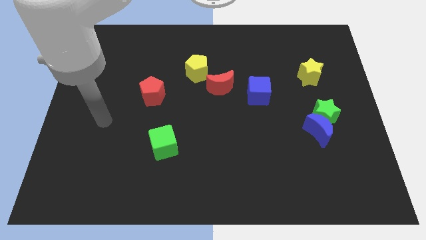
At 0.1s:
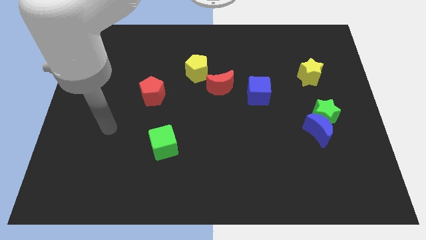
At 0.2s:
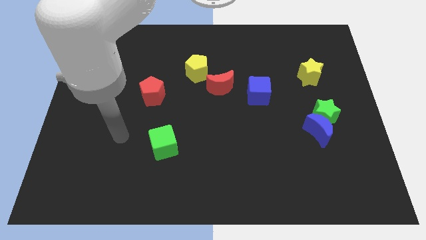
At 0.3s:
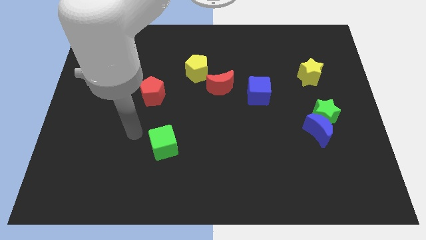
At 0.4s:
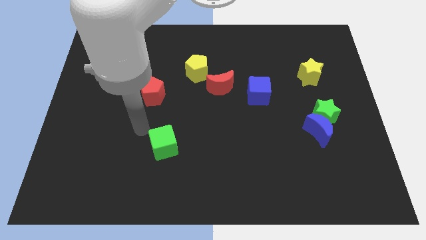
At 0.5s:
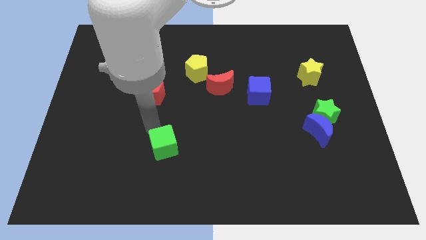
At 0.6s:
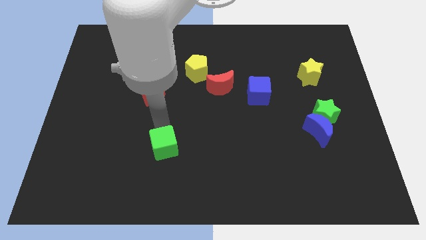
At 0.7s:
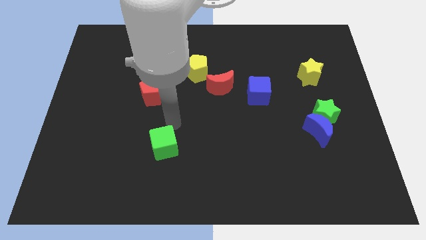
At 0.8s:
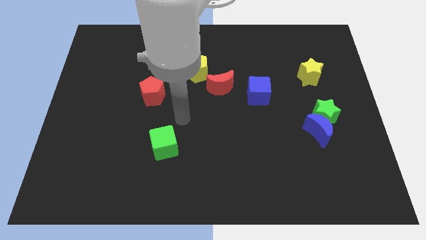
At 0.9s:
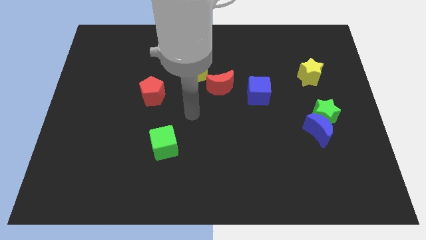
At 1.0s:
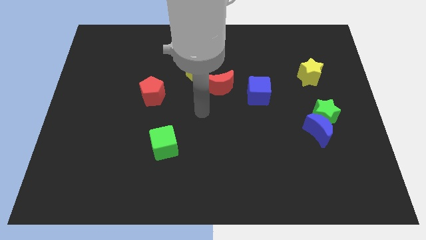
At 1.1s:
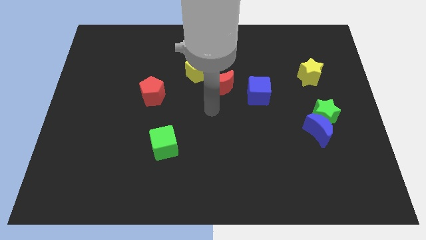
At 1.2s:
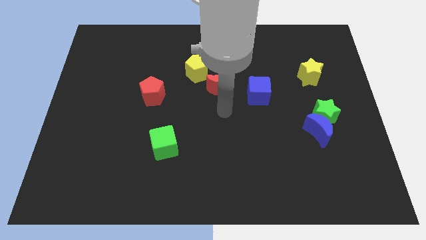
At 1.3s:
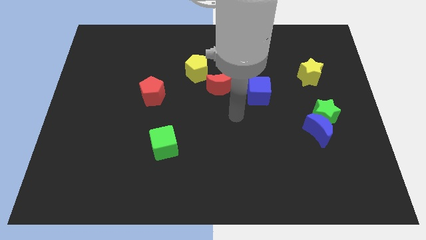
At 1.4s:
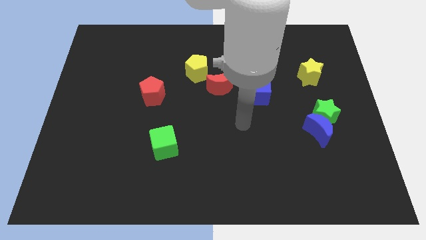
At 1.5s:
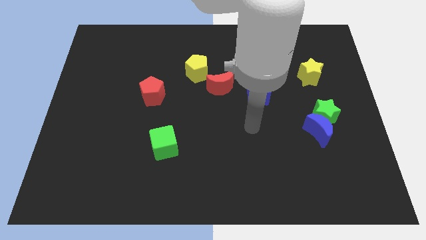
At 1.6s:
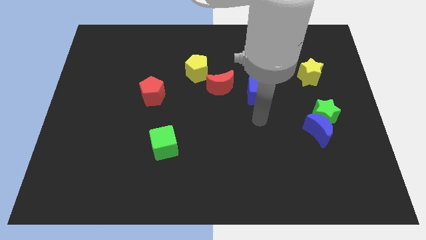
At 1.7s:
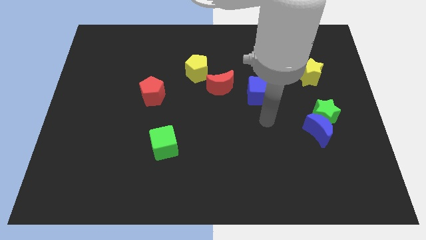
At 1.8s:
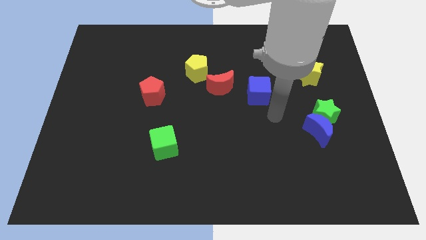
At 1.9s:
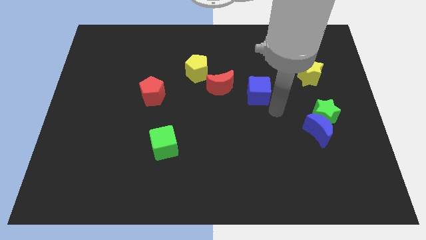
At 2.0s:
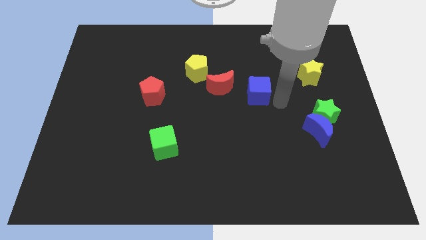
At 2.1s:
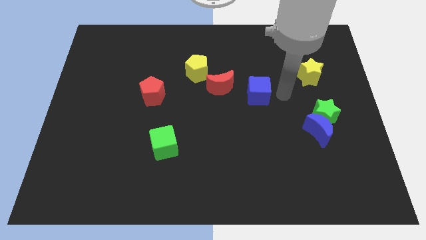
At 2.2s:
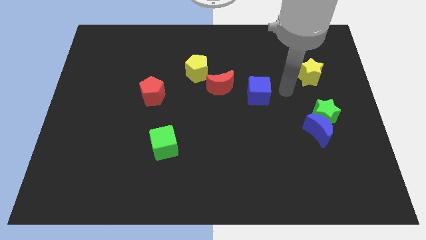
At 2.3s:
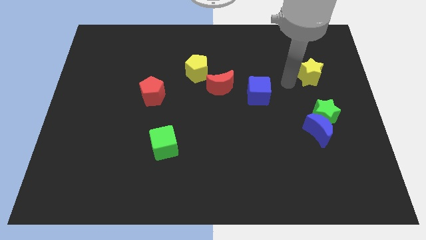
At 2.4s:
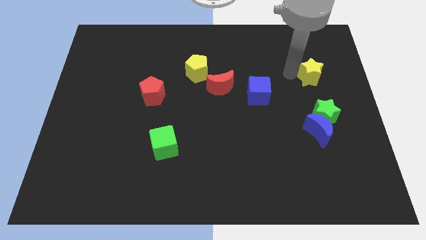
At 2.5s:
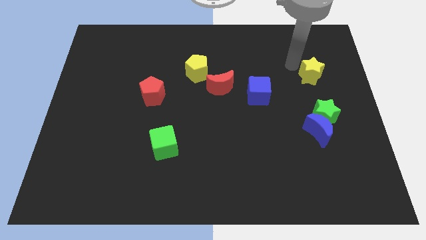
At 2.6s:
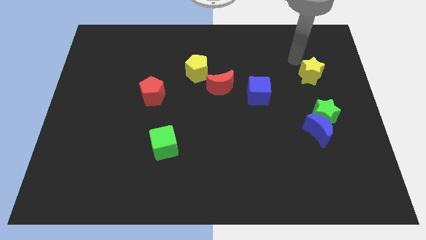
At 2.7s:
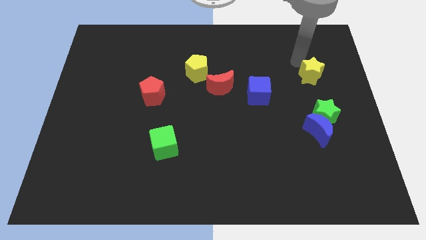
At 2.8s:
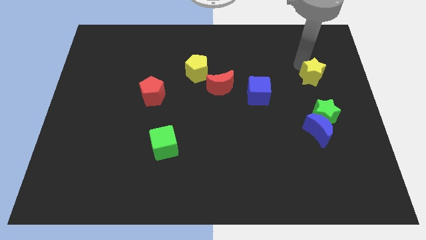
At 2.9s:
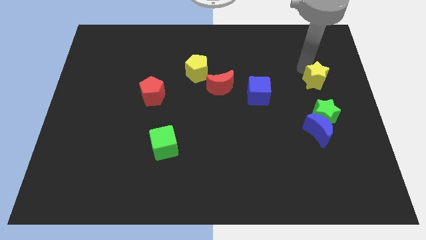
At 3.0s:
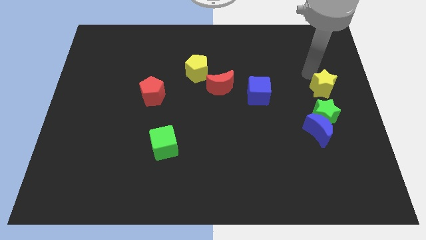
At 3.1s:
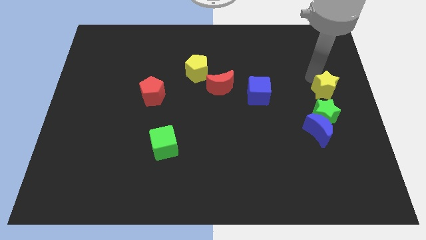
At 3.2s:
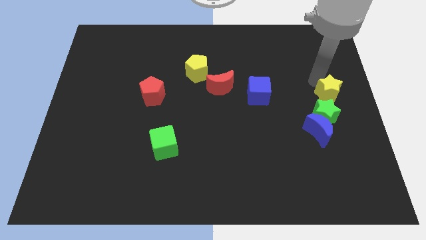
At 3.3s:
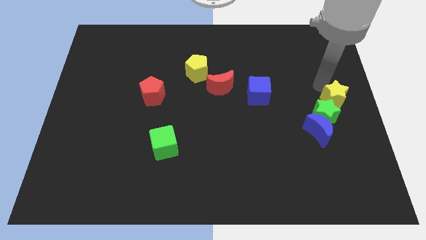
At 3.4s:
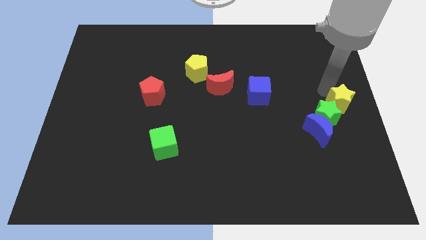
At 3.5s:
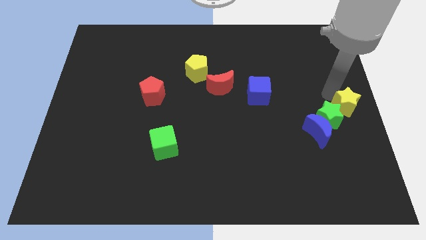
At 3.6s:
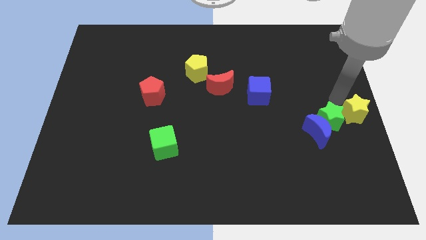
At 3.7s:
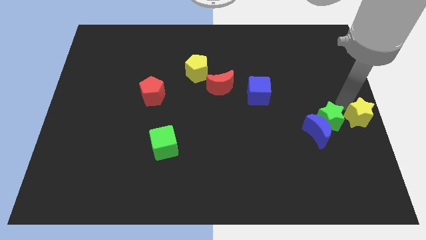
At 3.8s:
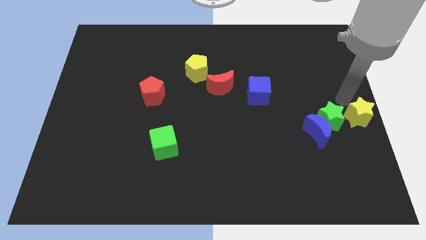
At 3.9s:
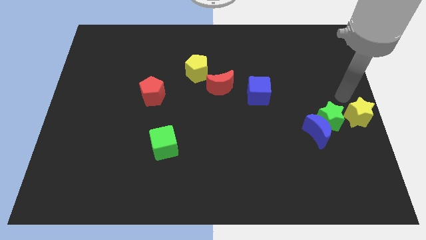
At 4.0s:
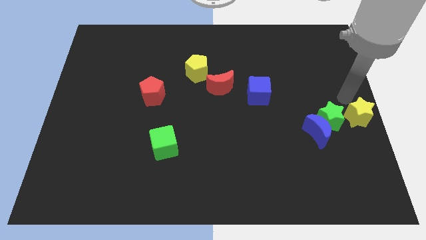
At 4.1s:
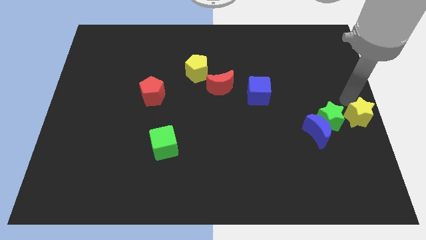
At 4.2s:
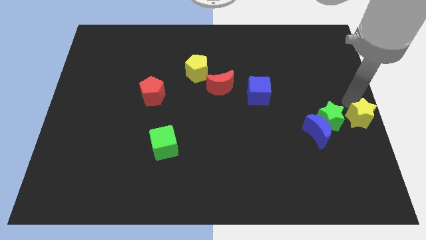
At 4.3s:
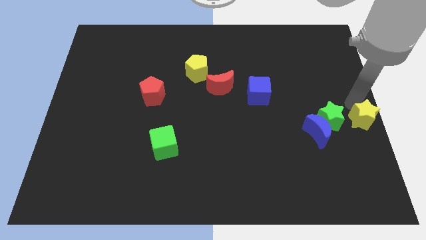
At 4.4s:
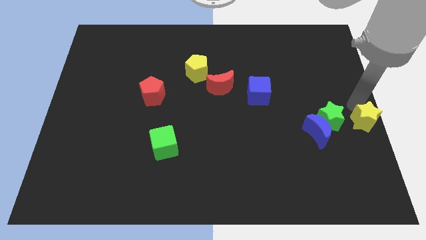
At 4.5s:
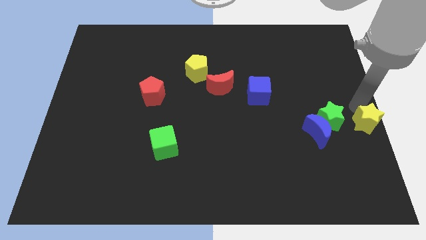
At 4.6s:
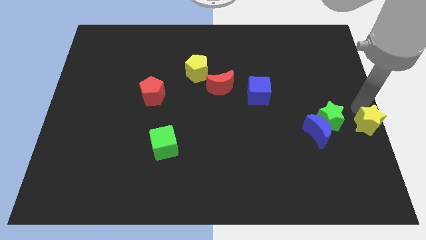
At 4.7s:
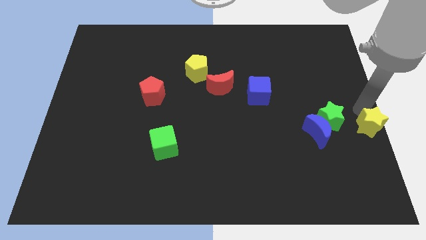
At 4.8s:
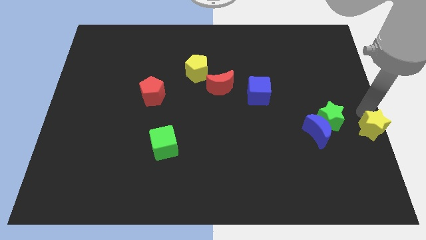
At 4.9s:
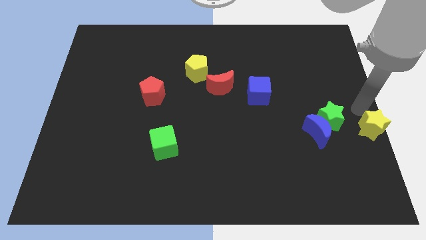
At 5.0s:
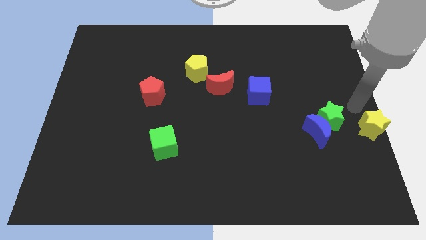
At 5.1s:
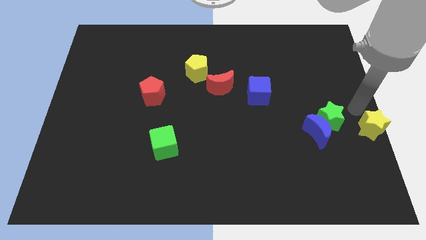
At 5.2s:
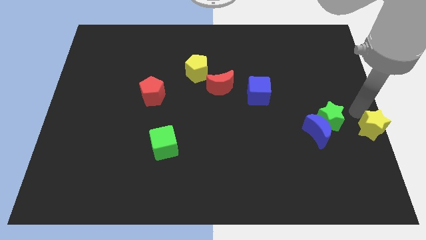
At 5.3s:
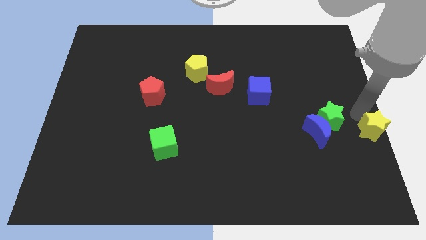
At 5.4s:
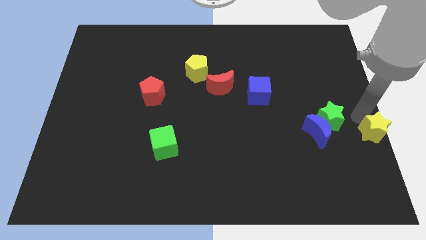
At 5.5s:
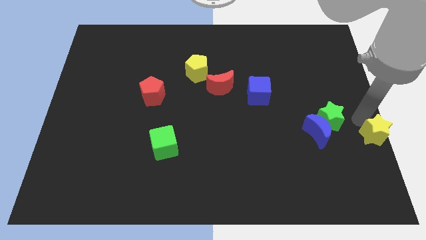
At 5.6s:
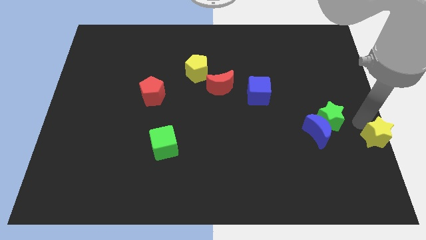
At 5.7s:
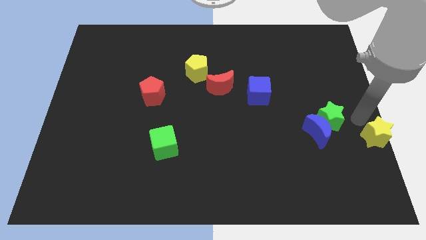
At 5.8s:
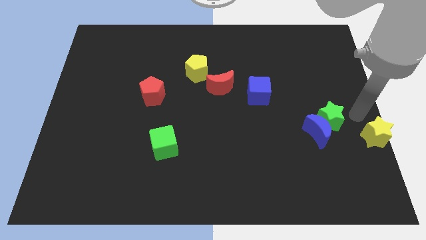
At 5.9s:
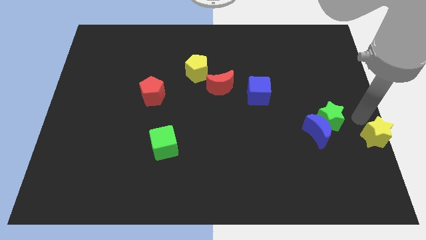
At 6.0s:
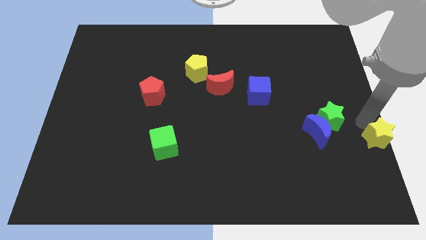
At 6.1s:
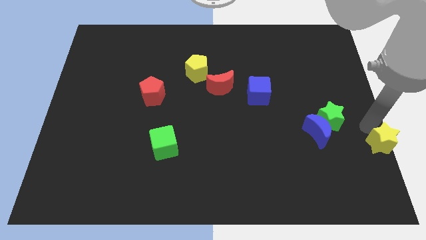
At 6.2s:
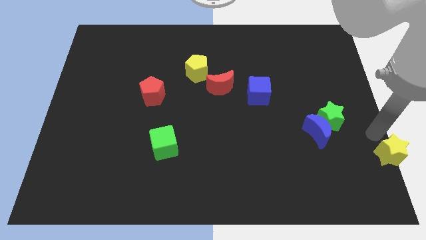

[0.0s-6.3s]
put the yellow star to the bottom right
